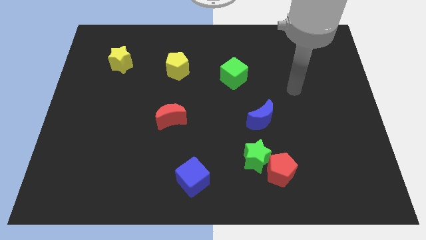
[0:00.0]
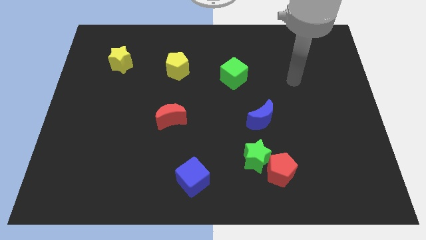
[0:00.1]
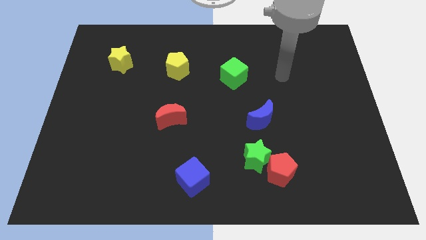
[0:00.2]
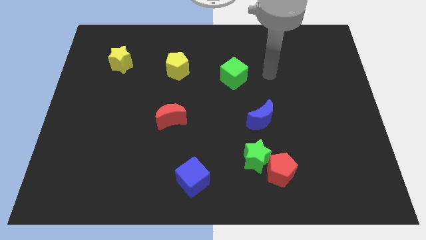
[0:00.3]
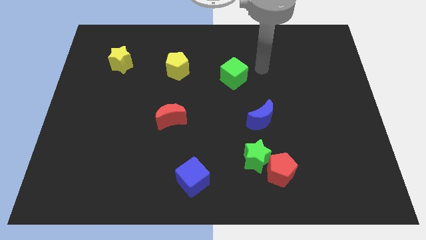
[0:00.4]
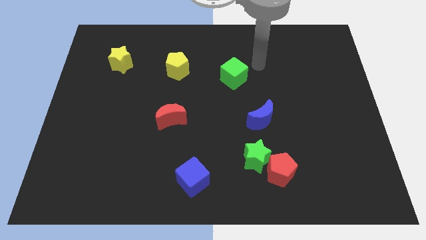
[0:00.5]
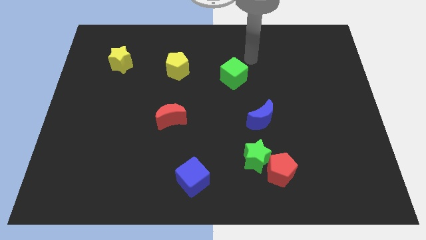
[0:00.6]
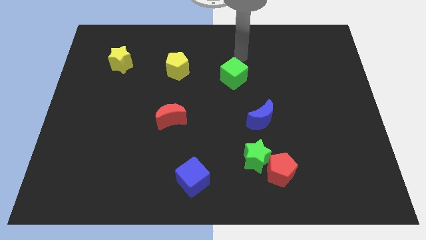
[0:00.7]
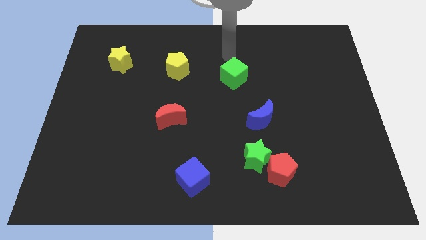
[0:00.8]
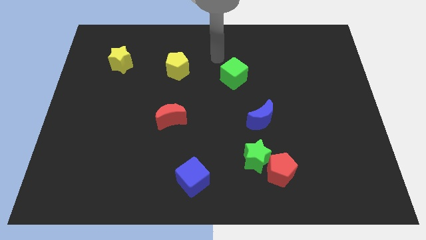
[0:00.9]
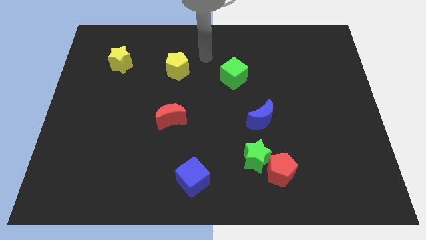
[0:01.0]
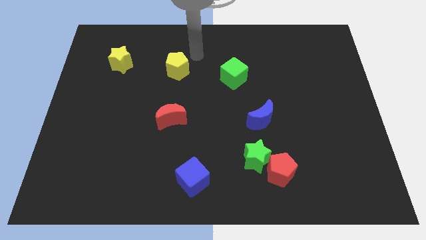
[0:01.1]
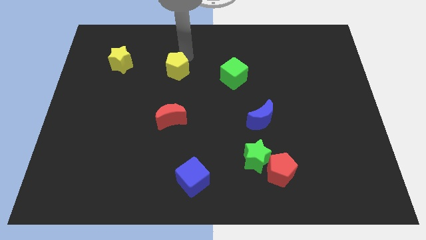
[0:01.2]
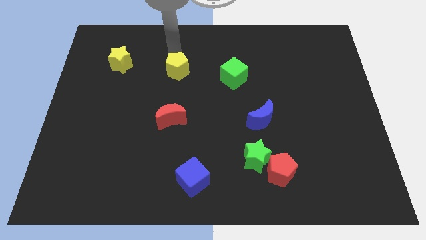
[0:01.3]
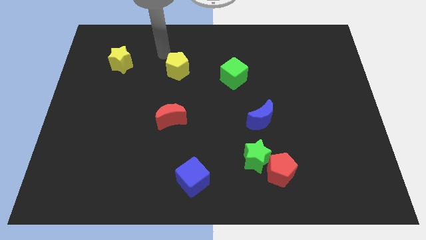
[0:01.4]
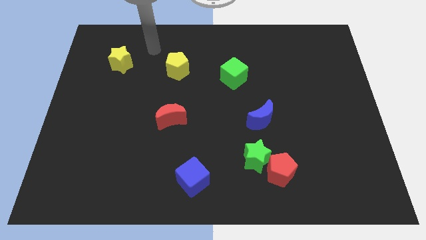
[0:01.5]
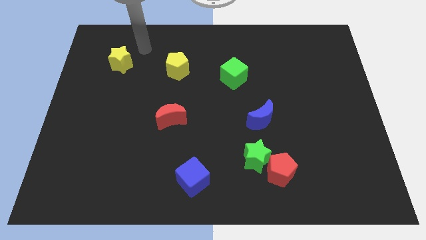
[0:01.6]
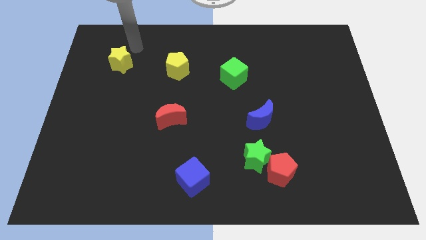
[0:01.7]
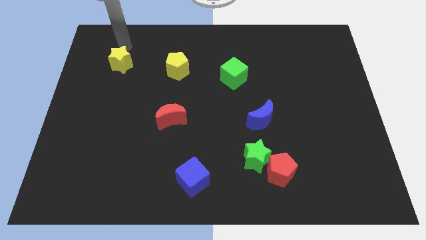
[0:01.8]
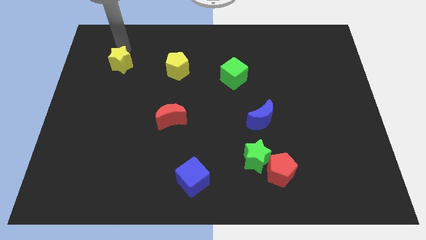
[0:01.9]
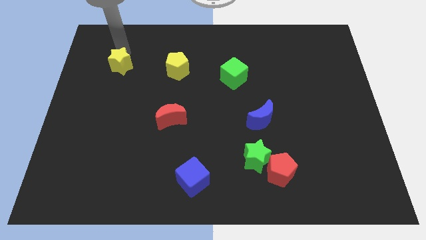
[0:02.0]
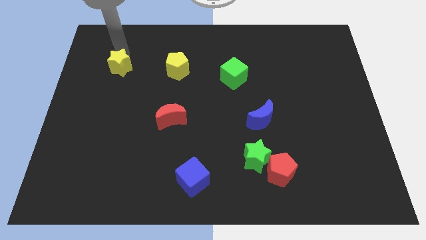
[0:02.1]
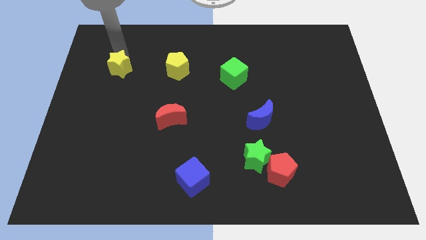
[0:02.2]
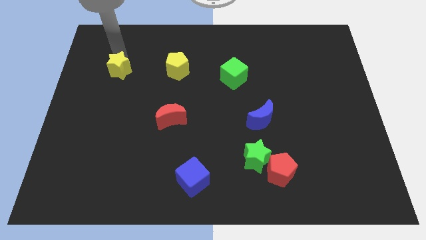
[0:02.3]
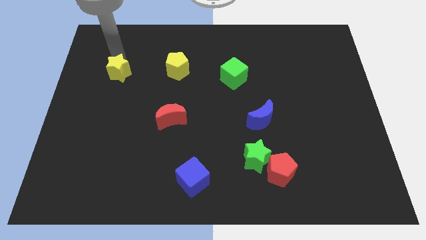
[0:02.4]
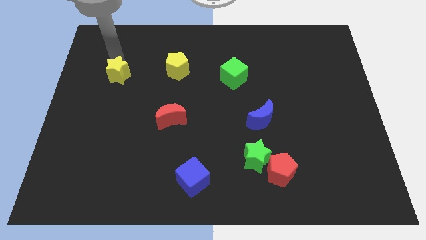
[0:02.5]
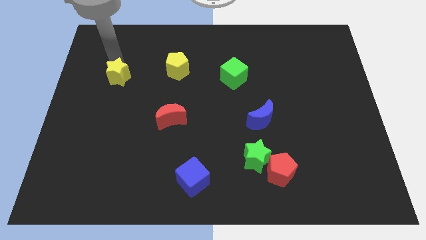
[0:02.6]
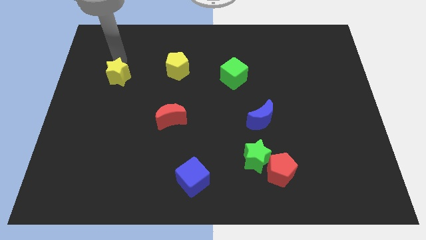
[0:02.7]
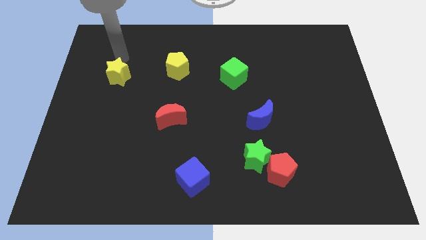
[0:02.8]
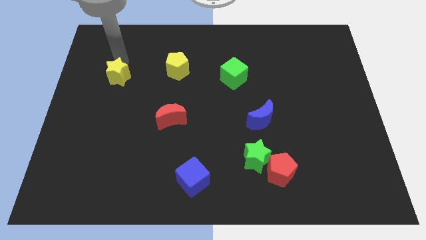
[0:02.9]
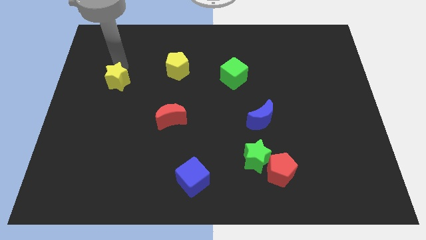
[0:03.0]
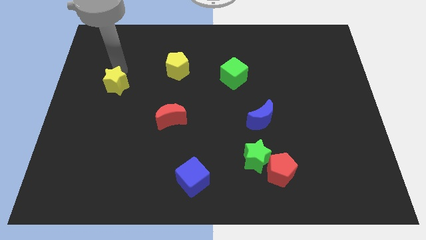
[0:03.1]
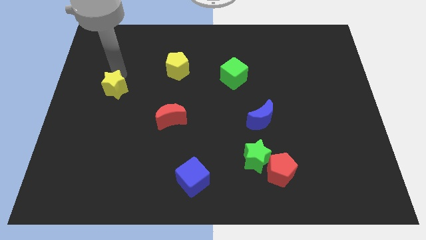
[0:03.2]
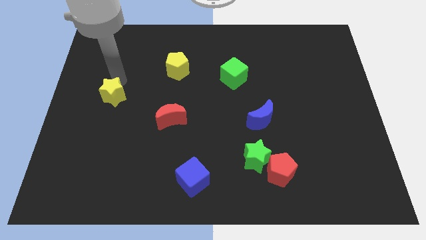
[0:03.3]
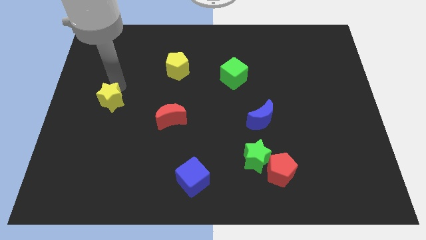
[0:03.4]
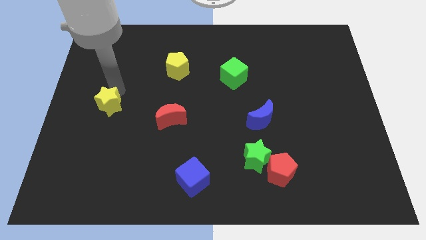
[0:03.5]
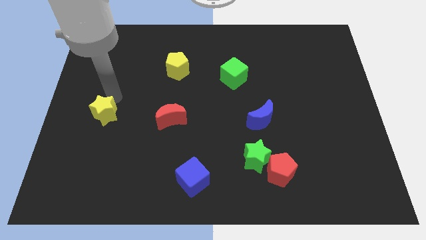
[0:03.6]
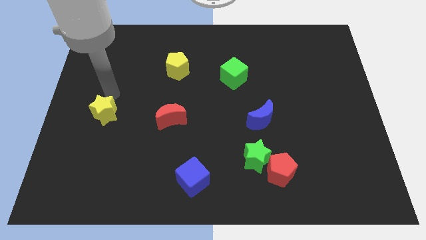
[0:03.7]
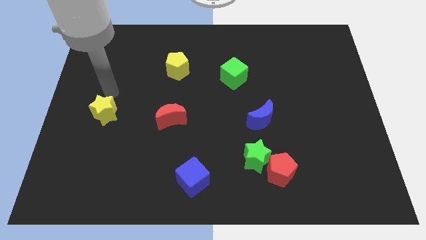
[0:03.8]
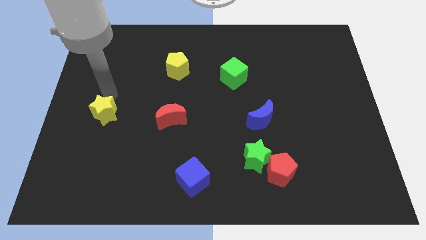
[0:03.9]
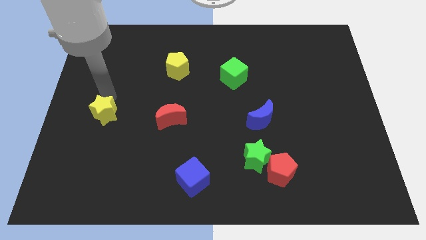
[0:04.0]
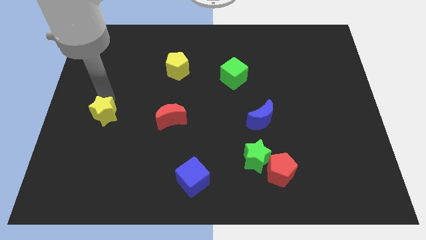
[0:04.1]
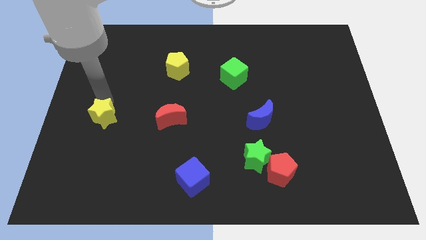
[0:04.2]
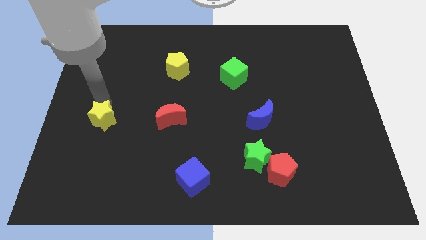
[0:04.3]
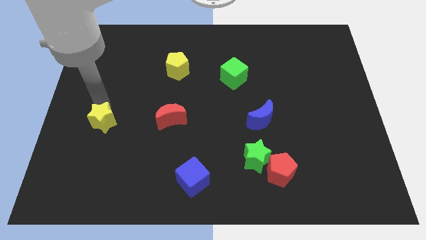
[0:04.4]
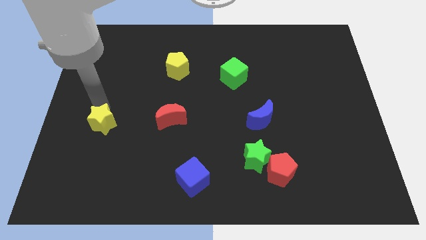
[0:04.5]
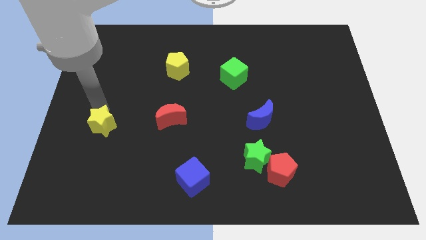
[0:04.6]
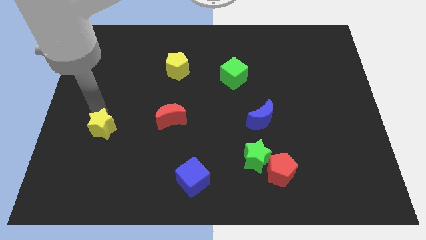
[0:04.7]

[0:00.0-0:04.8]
push the yellow star downwards

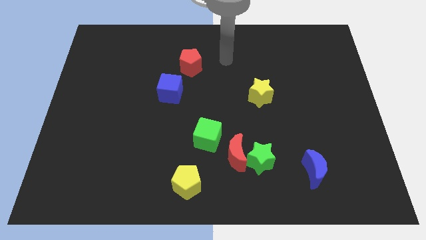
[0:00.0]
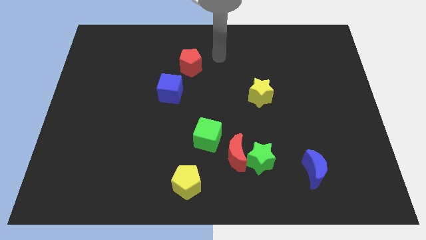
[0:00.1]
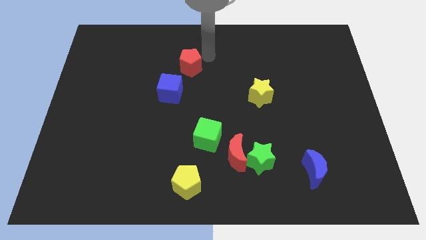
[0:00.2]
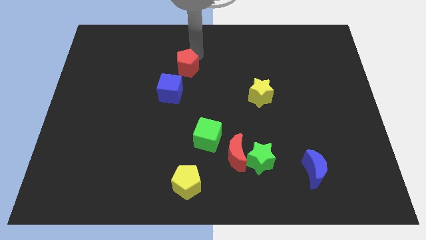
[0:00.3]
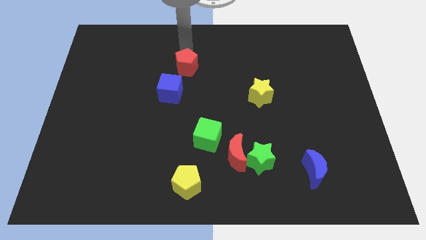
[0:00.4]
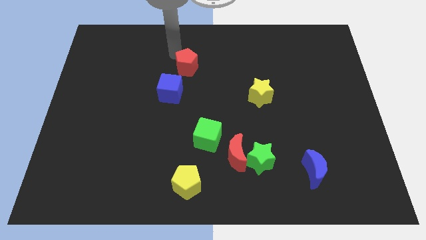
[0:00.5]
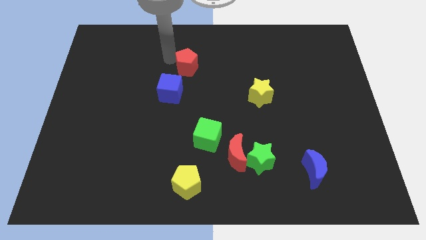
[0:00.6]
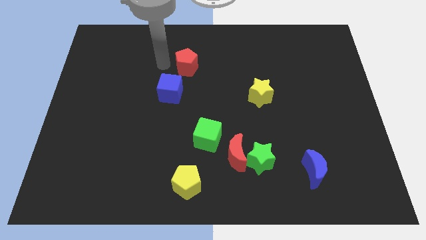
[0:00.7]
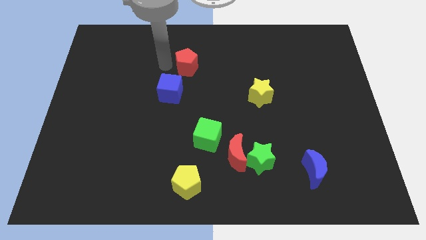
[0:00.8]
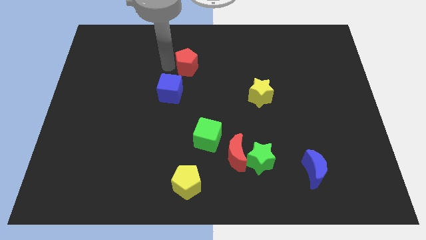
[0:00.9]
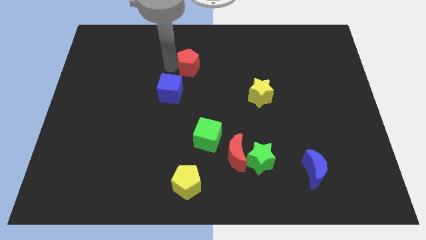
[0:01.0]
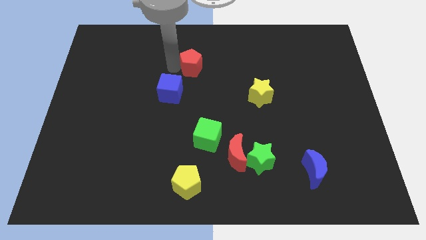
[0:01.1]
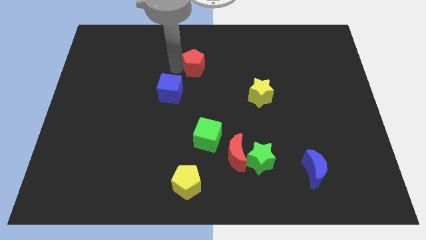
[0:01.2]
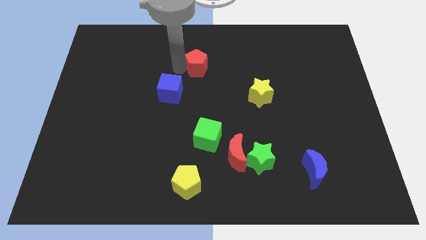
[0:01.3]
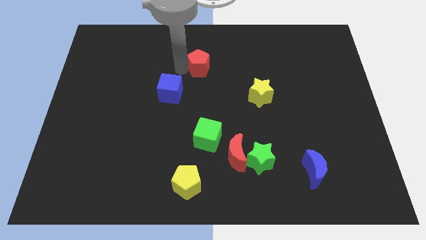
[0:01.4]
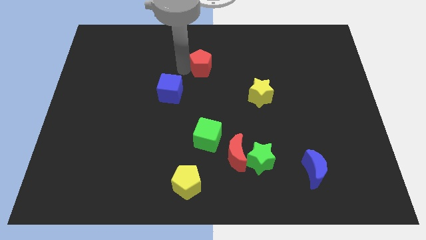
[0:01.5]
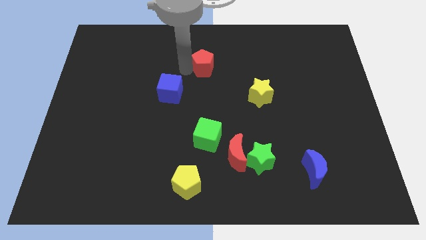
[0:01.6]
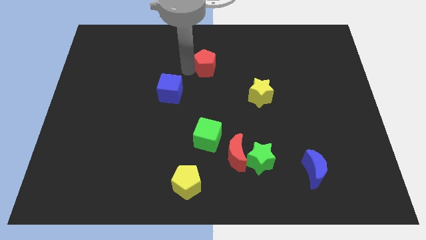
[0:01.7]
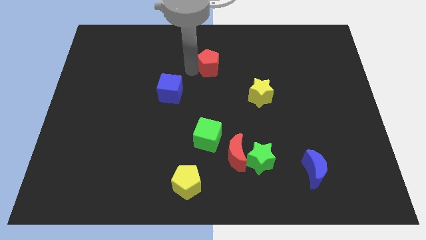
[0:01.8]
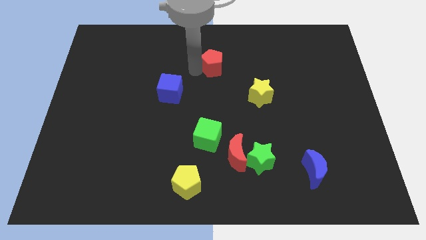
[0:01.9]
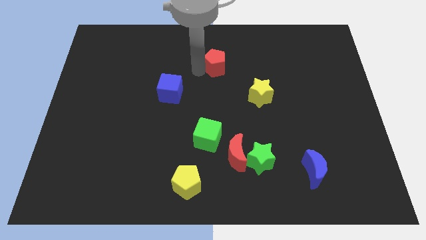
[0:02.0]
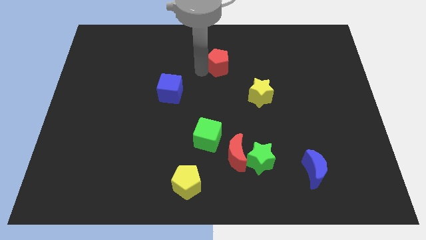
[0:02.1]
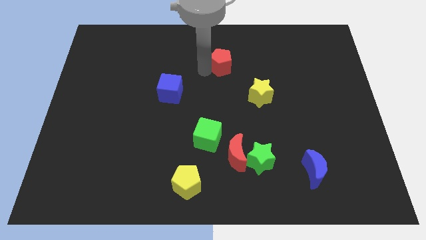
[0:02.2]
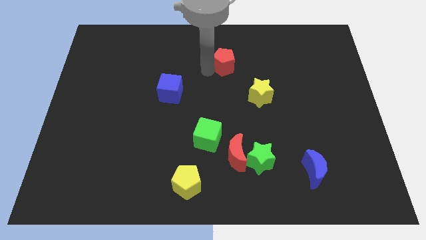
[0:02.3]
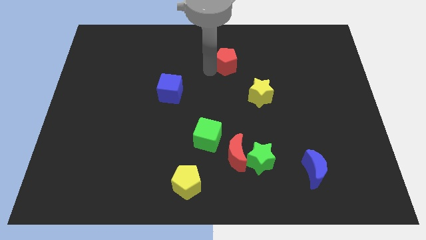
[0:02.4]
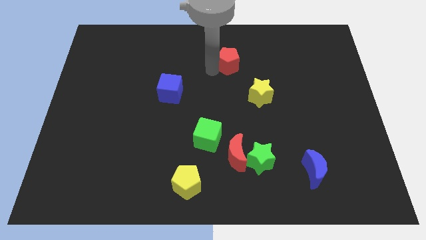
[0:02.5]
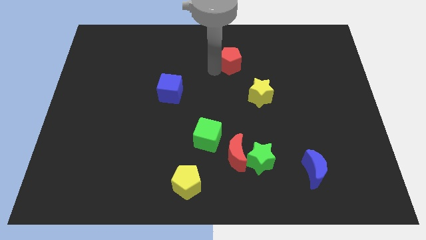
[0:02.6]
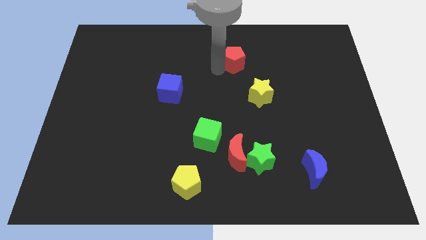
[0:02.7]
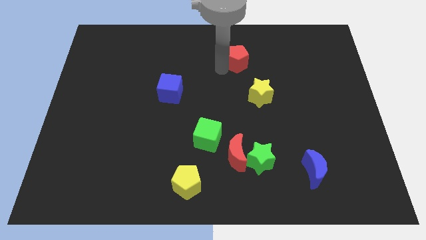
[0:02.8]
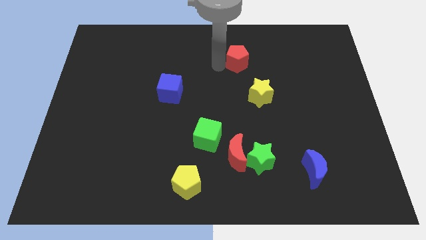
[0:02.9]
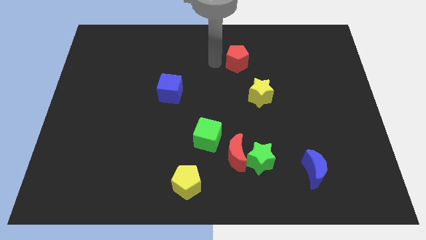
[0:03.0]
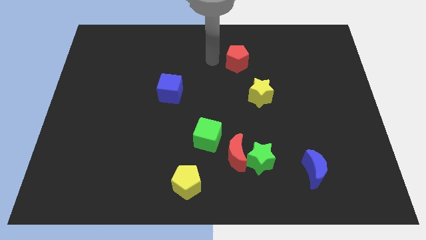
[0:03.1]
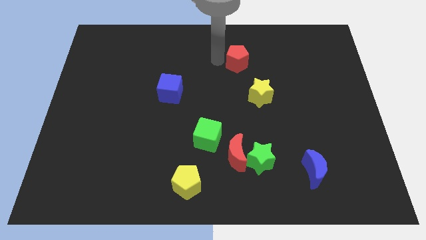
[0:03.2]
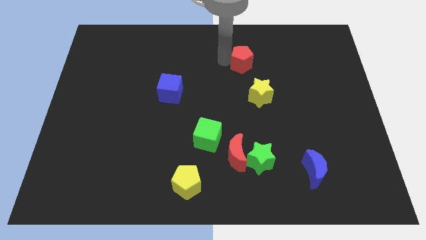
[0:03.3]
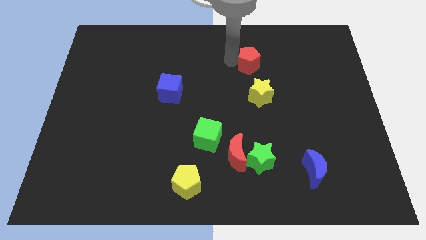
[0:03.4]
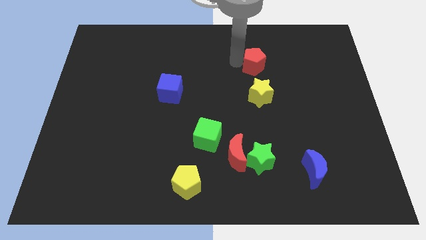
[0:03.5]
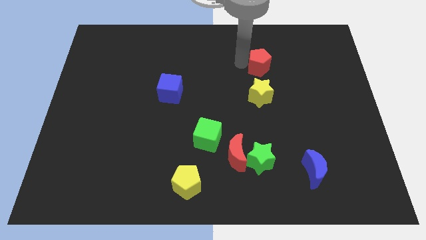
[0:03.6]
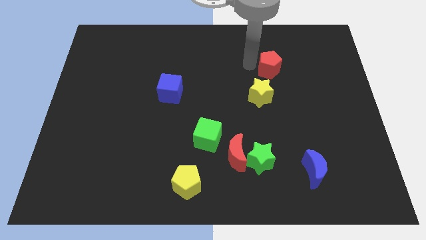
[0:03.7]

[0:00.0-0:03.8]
slide the red pentagon right
